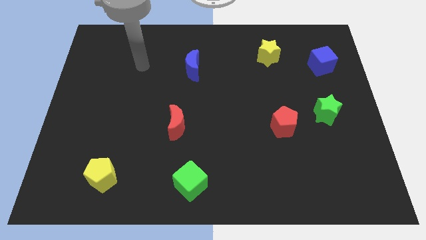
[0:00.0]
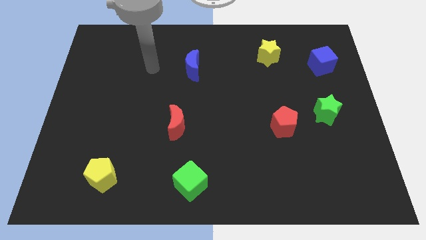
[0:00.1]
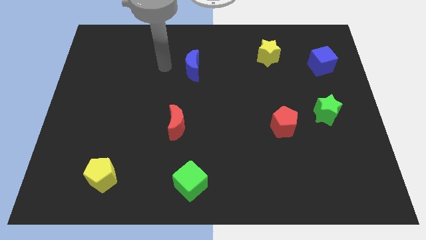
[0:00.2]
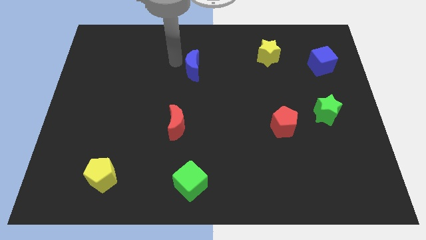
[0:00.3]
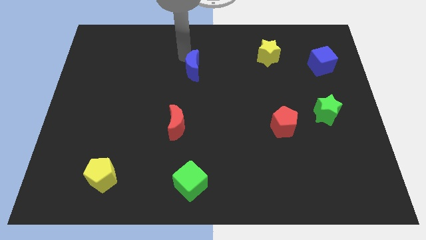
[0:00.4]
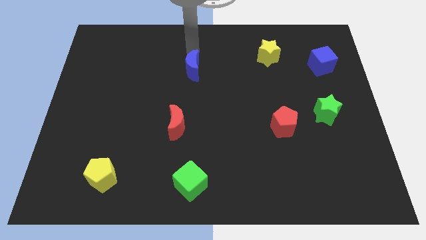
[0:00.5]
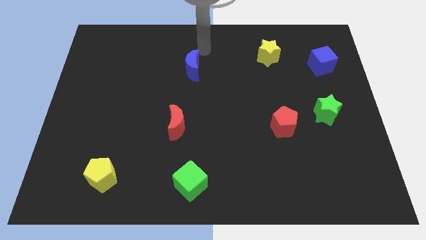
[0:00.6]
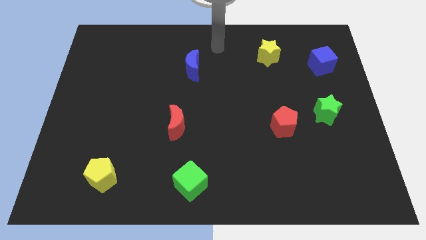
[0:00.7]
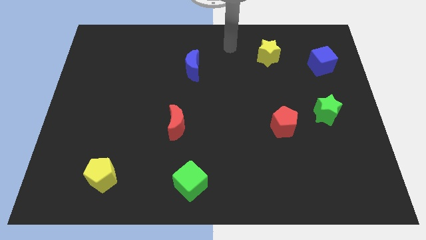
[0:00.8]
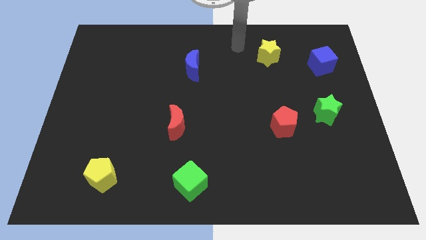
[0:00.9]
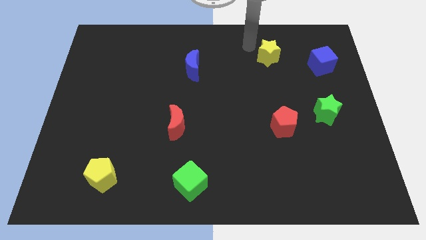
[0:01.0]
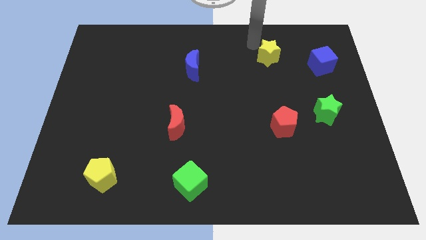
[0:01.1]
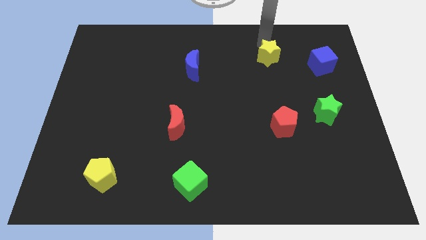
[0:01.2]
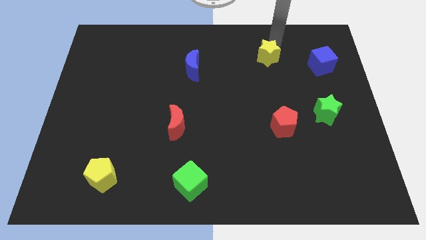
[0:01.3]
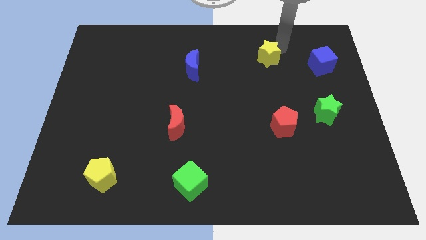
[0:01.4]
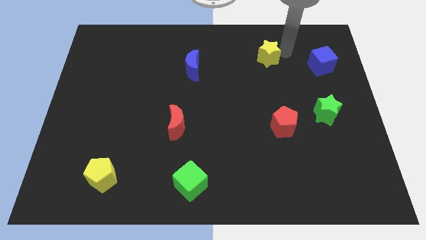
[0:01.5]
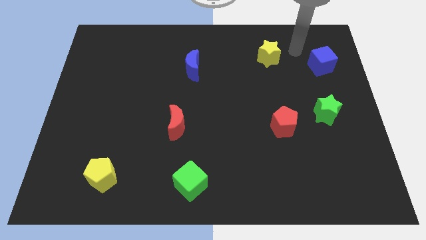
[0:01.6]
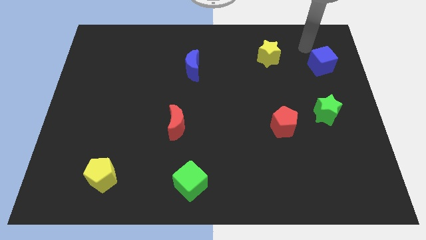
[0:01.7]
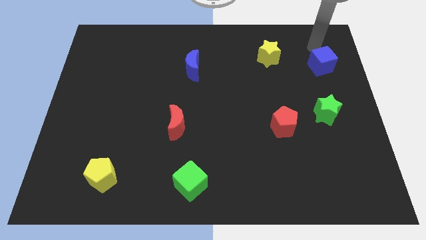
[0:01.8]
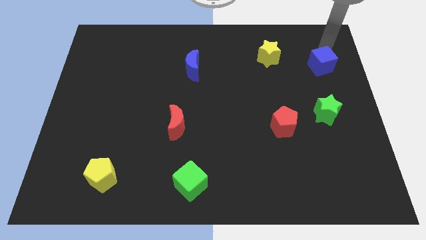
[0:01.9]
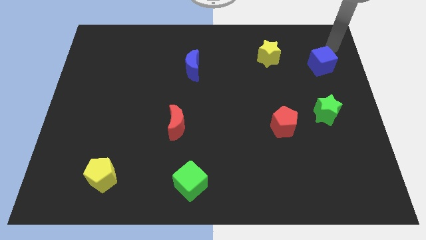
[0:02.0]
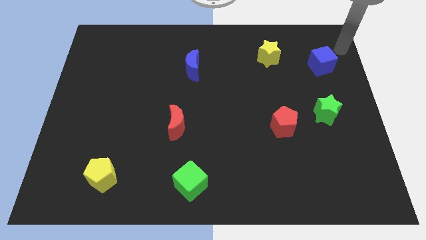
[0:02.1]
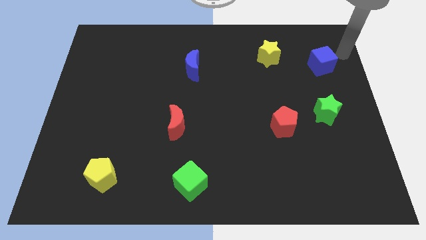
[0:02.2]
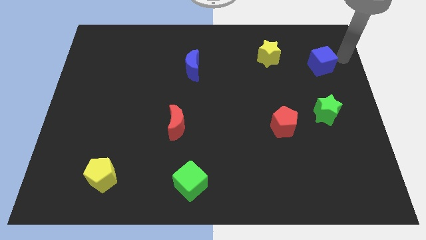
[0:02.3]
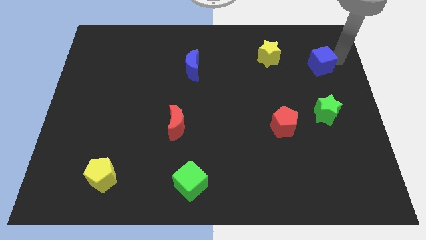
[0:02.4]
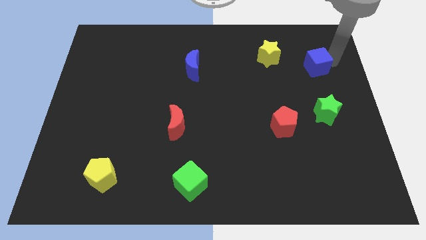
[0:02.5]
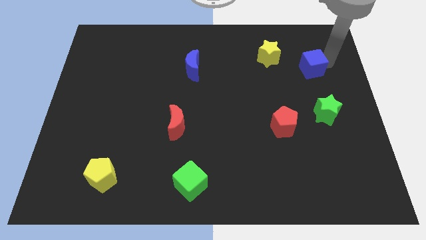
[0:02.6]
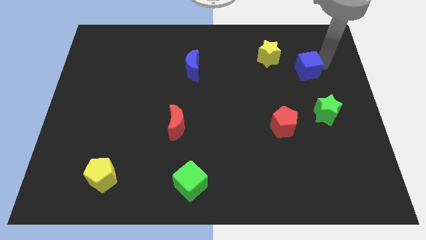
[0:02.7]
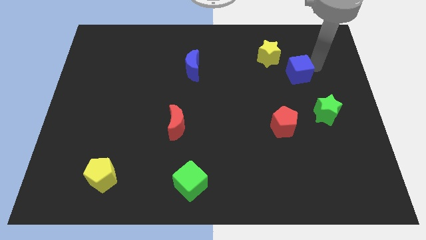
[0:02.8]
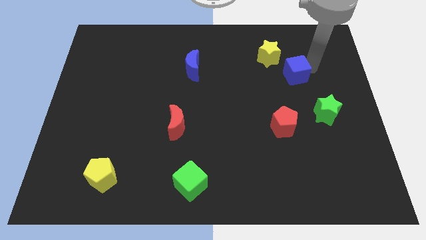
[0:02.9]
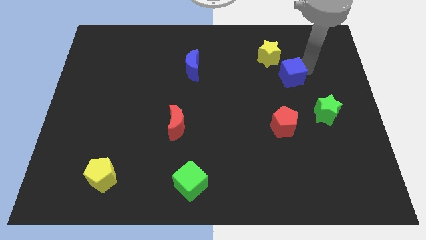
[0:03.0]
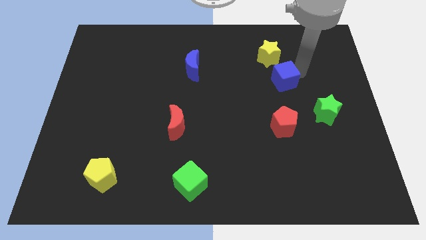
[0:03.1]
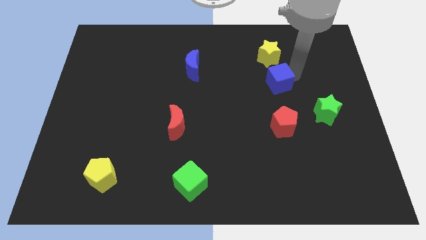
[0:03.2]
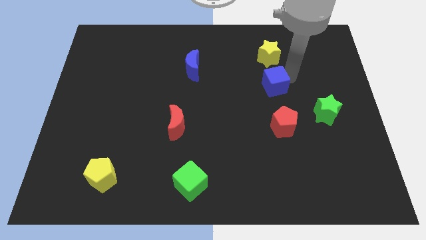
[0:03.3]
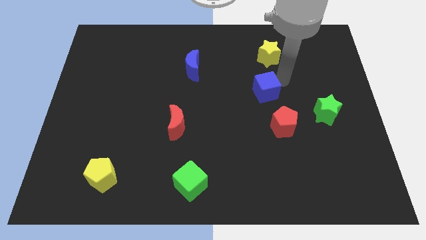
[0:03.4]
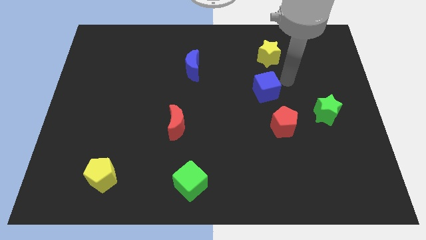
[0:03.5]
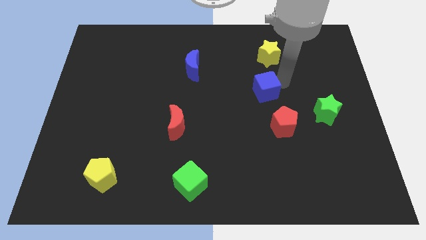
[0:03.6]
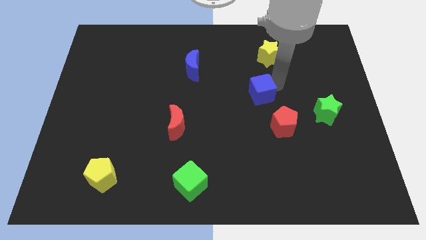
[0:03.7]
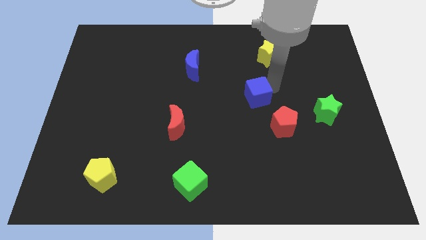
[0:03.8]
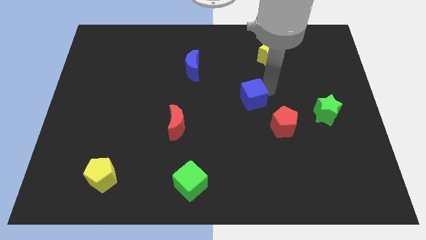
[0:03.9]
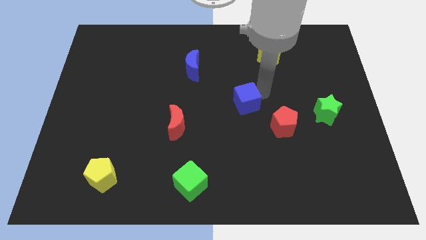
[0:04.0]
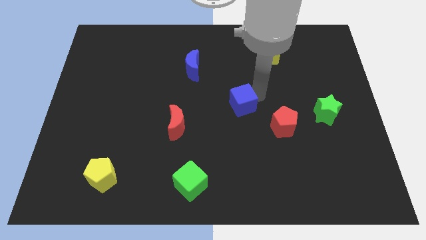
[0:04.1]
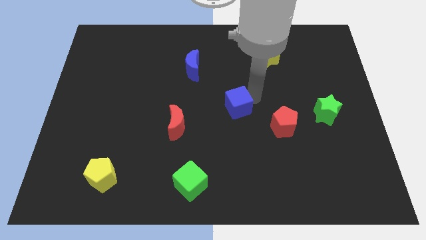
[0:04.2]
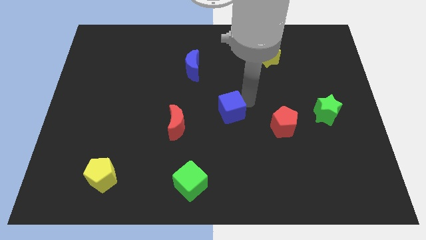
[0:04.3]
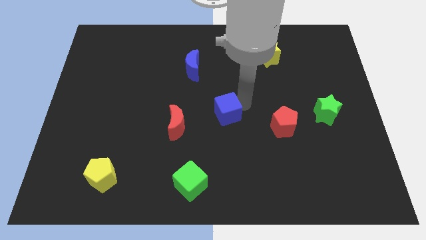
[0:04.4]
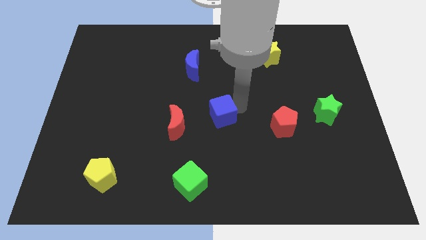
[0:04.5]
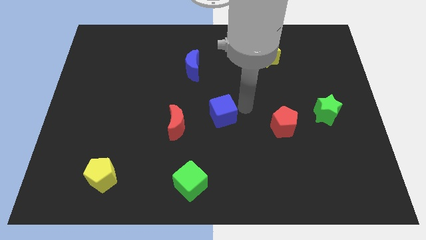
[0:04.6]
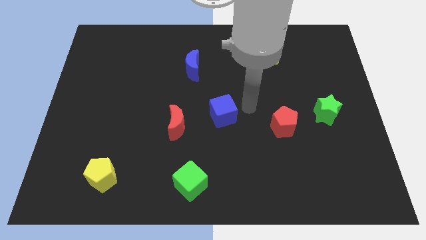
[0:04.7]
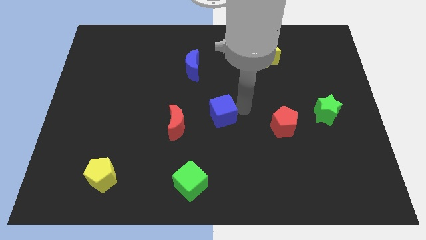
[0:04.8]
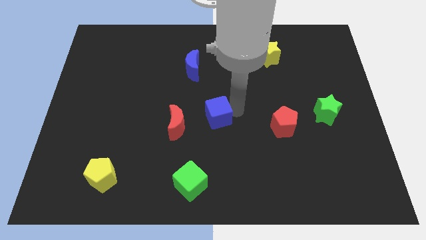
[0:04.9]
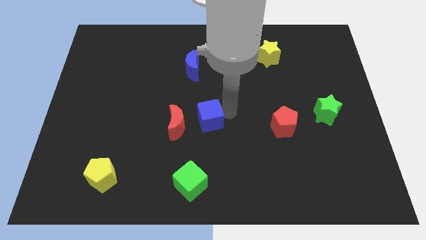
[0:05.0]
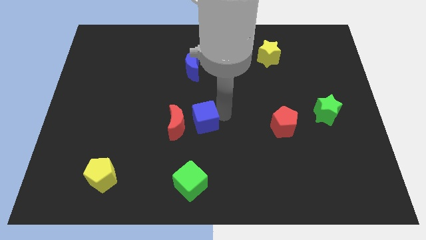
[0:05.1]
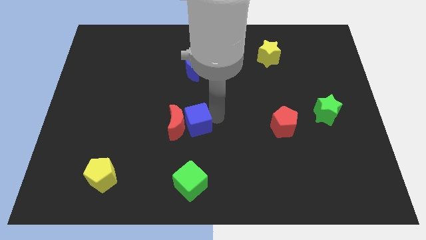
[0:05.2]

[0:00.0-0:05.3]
push the blue cube next to the red moon

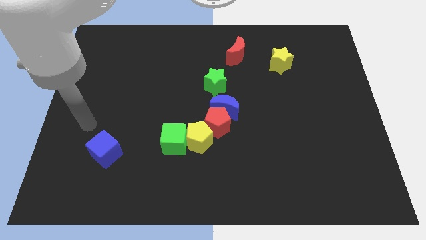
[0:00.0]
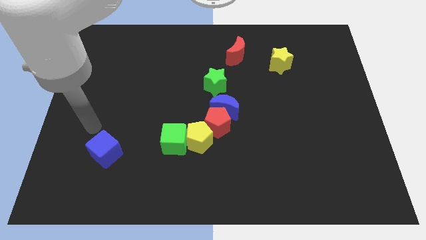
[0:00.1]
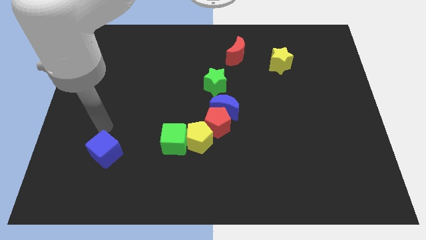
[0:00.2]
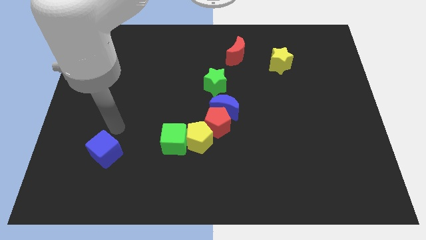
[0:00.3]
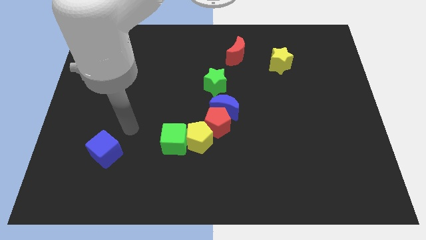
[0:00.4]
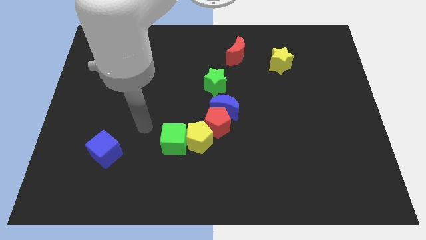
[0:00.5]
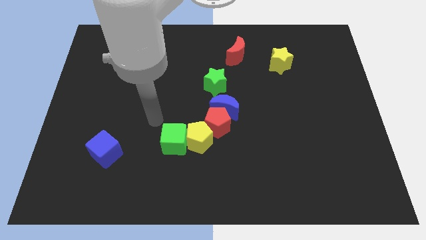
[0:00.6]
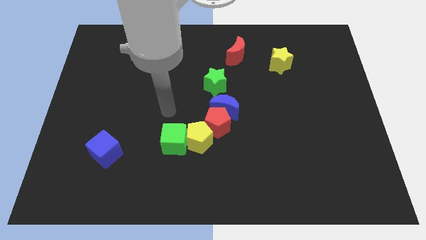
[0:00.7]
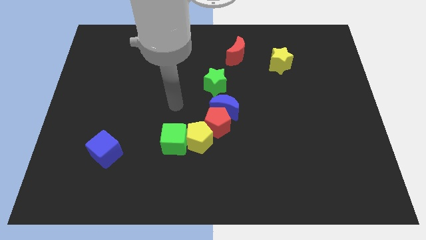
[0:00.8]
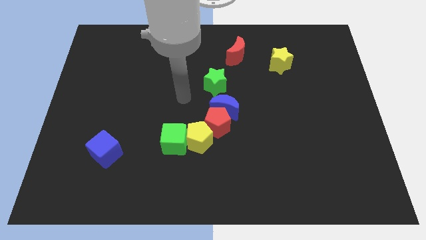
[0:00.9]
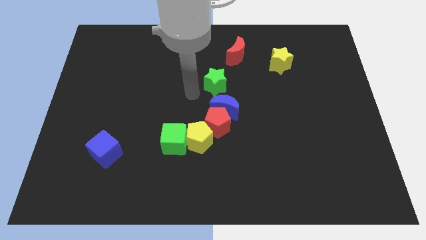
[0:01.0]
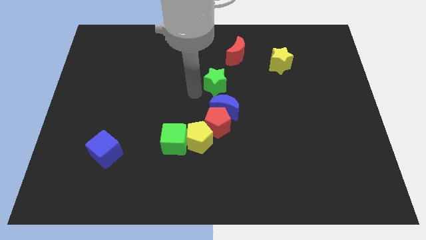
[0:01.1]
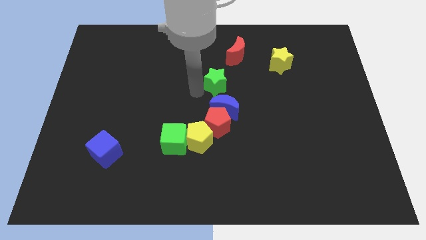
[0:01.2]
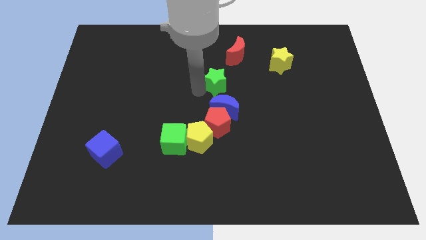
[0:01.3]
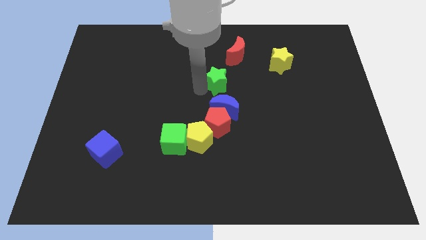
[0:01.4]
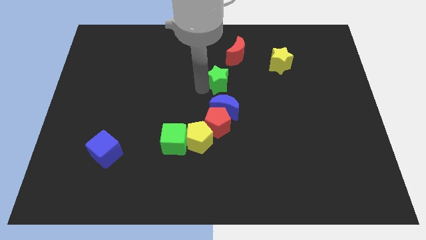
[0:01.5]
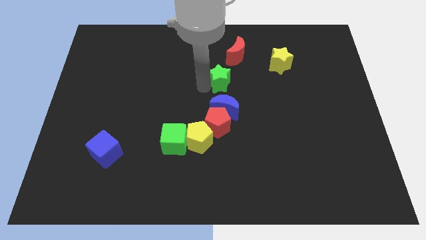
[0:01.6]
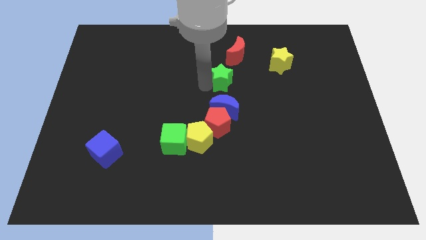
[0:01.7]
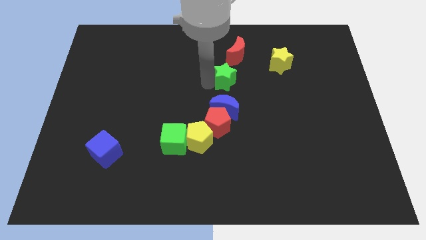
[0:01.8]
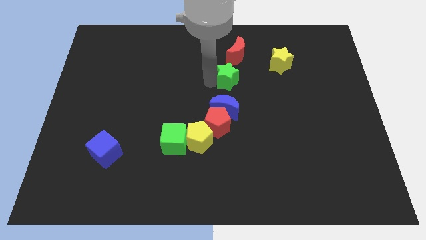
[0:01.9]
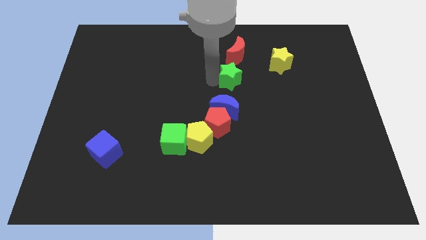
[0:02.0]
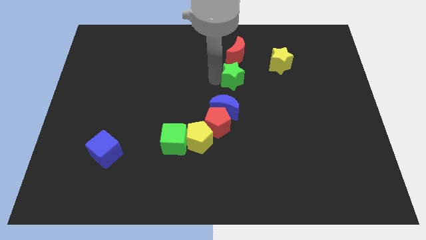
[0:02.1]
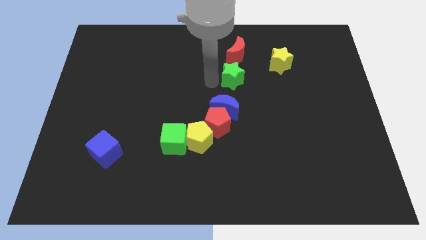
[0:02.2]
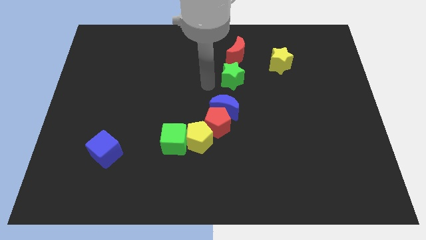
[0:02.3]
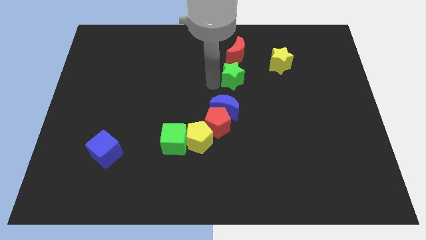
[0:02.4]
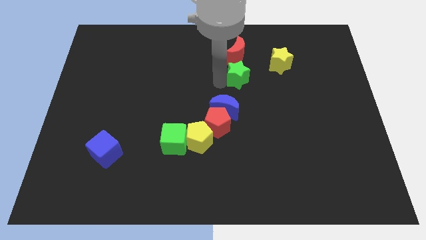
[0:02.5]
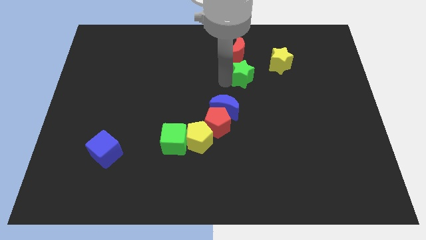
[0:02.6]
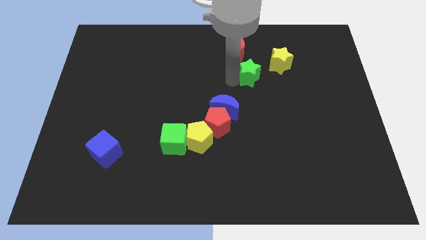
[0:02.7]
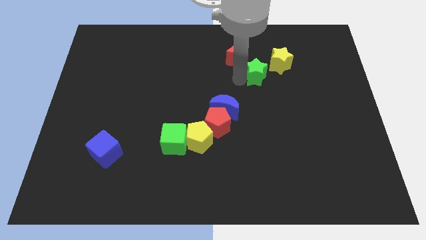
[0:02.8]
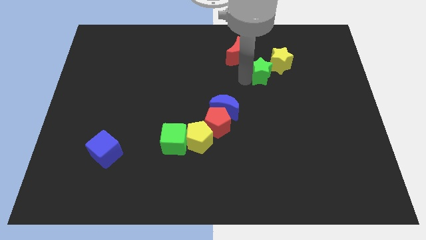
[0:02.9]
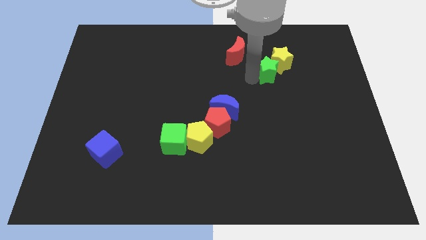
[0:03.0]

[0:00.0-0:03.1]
put the green star towards the yellow star
